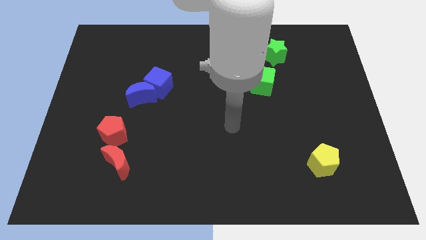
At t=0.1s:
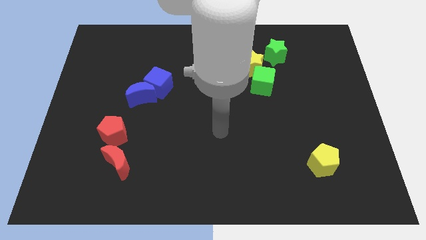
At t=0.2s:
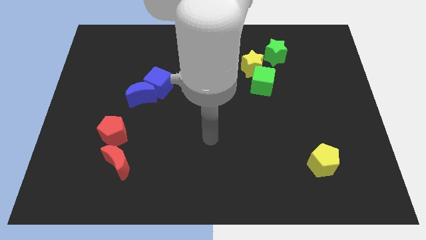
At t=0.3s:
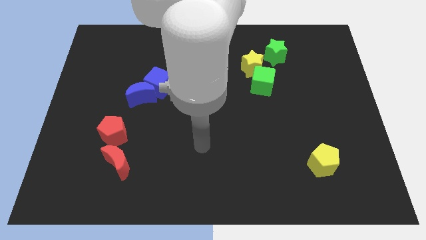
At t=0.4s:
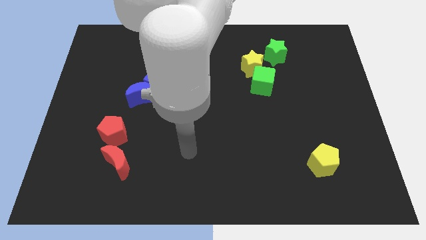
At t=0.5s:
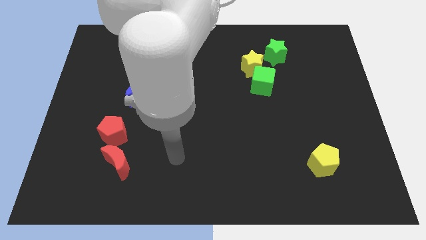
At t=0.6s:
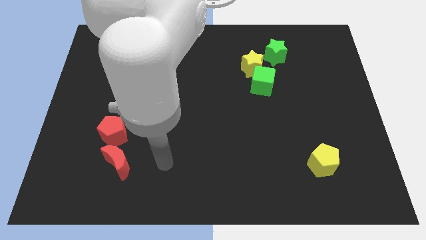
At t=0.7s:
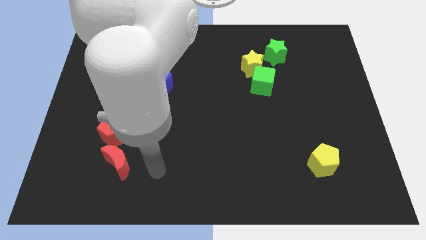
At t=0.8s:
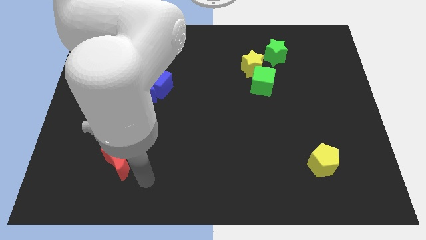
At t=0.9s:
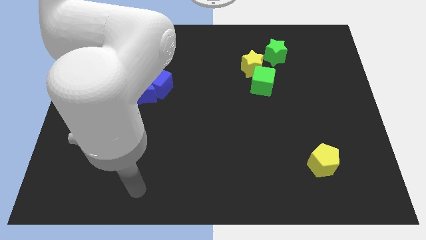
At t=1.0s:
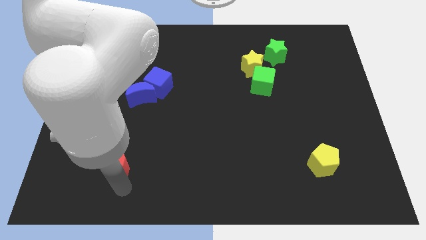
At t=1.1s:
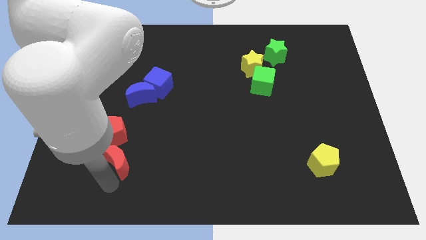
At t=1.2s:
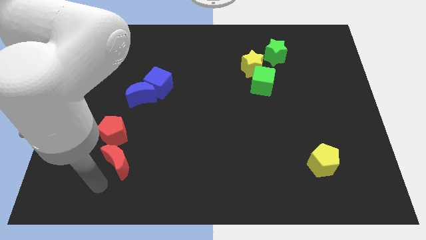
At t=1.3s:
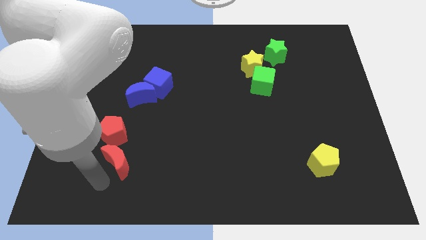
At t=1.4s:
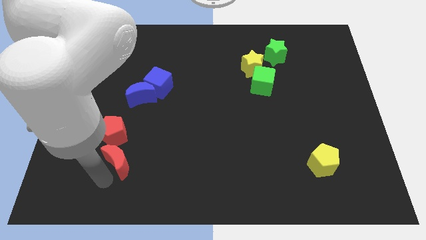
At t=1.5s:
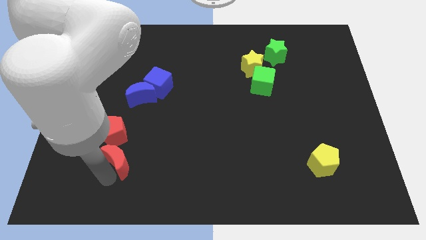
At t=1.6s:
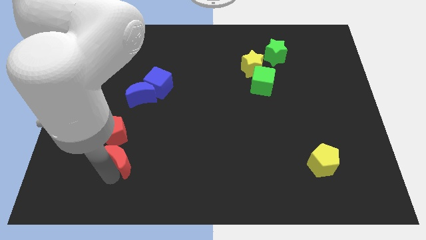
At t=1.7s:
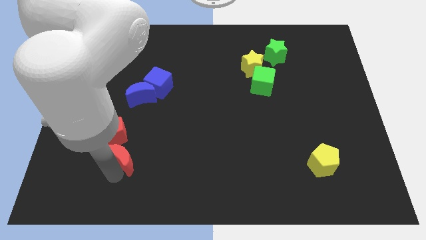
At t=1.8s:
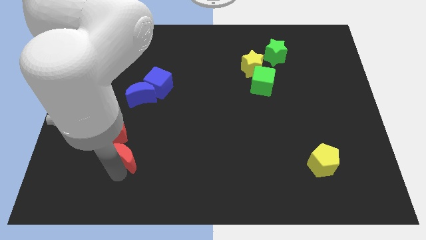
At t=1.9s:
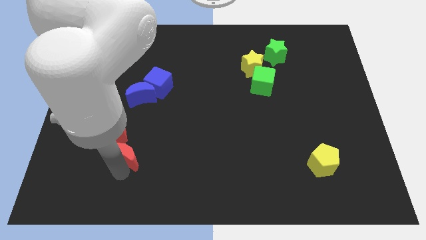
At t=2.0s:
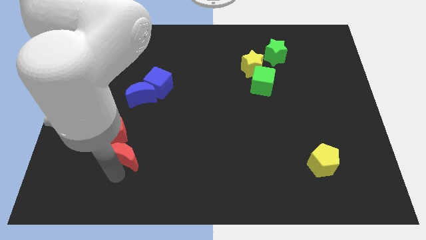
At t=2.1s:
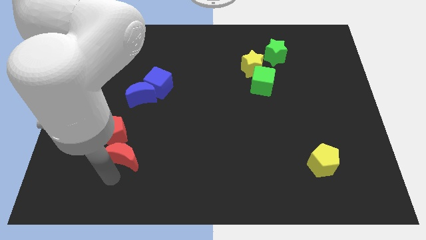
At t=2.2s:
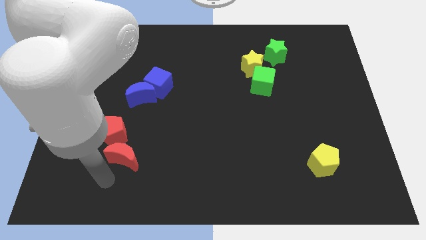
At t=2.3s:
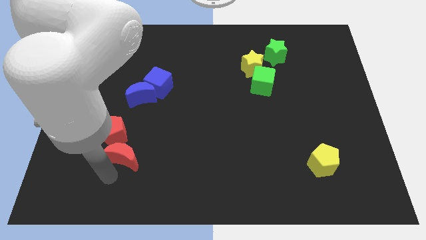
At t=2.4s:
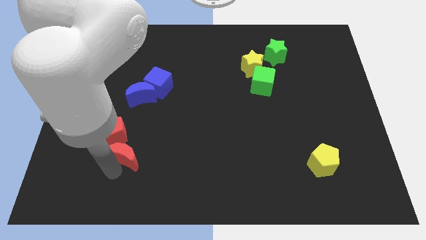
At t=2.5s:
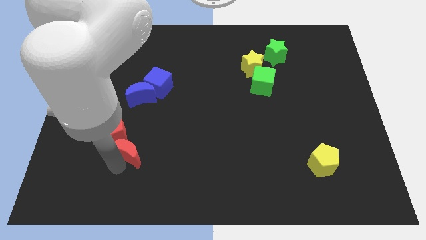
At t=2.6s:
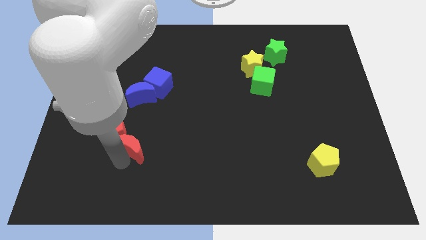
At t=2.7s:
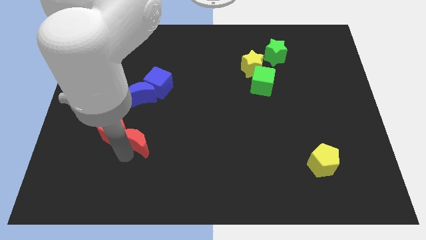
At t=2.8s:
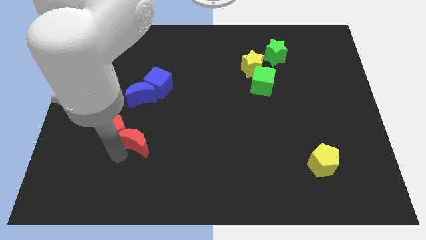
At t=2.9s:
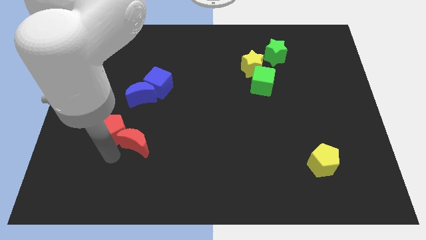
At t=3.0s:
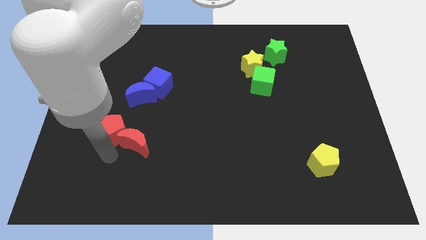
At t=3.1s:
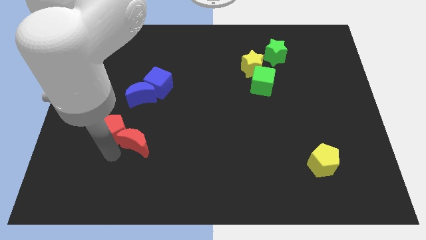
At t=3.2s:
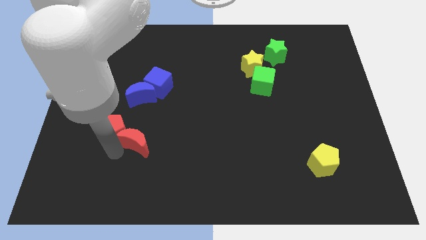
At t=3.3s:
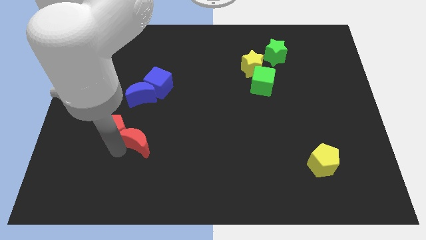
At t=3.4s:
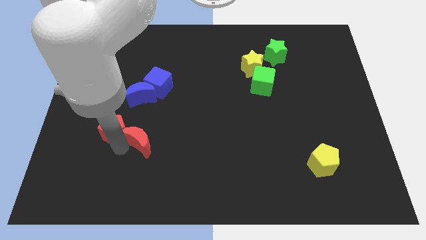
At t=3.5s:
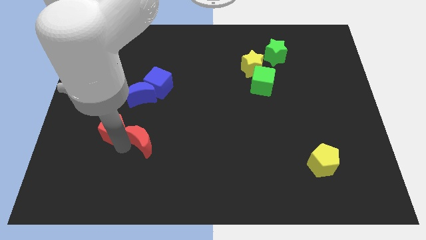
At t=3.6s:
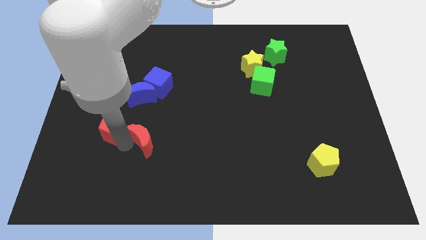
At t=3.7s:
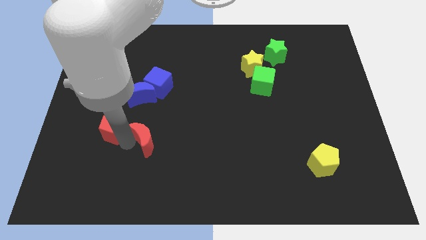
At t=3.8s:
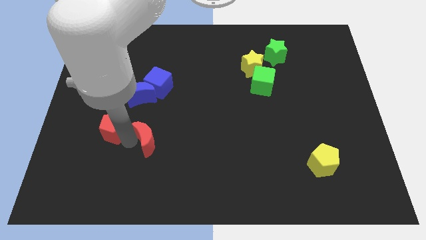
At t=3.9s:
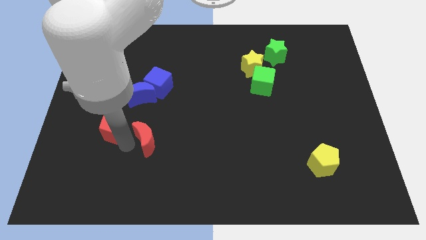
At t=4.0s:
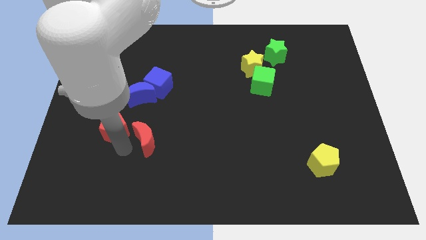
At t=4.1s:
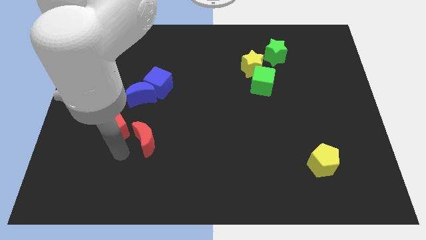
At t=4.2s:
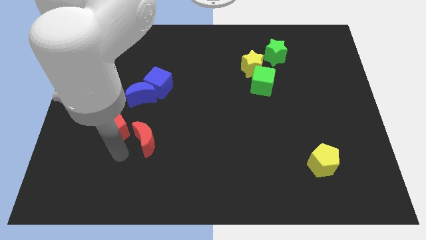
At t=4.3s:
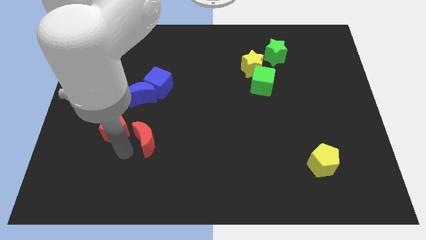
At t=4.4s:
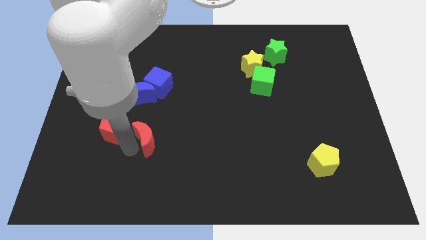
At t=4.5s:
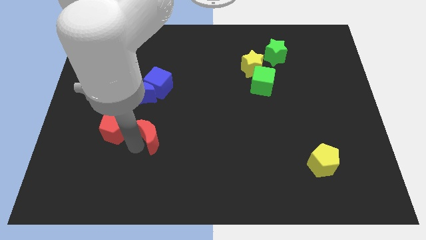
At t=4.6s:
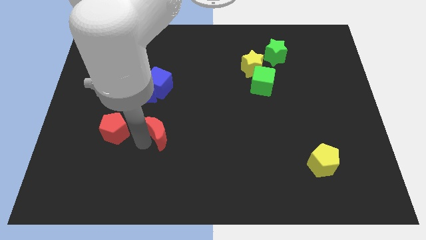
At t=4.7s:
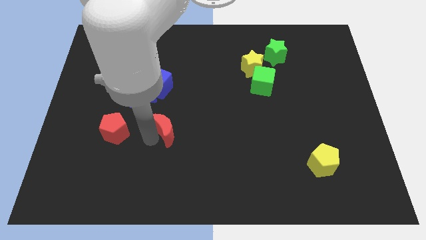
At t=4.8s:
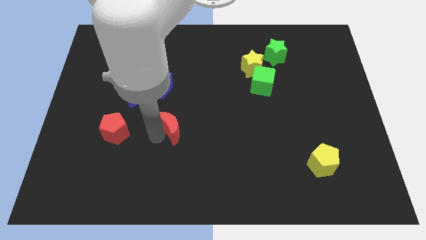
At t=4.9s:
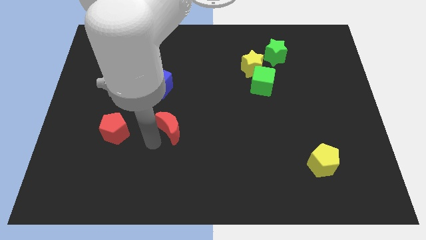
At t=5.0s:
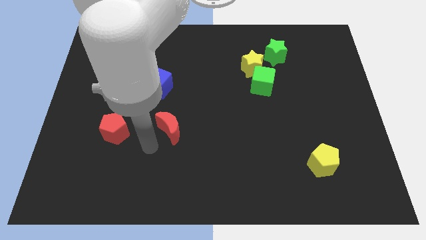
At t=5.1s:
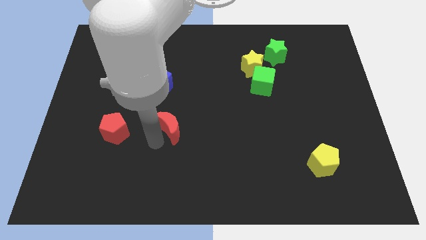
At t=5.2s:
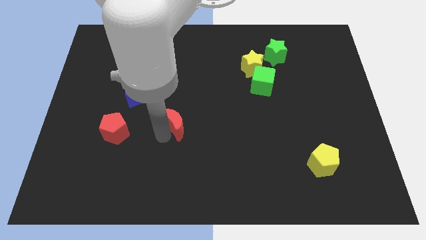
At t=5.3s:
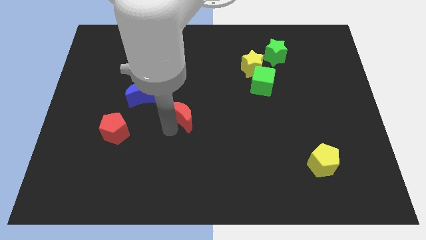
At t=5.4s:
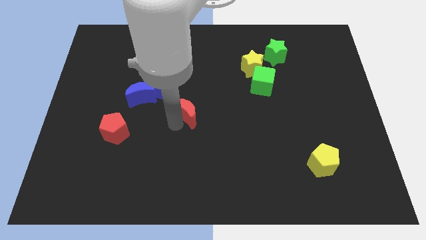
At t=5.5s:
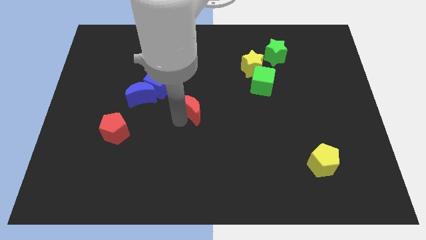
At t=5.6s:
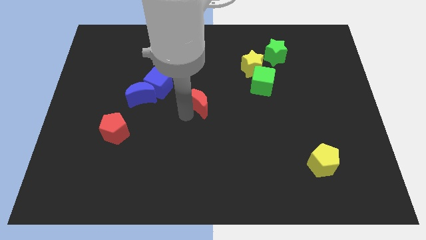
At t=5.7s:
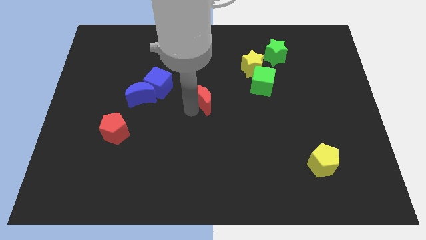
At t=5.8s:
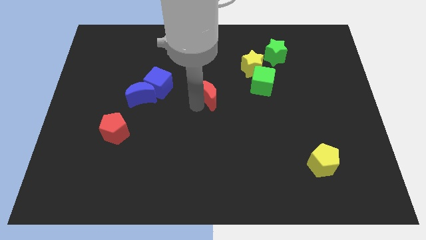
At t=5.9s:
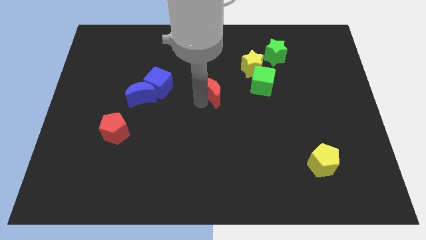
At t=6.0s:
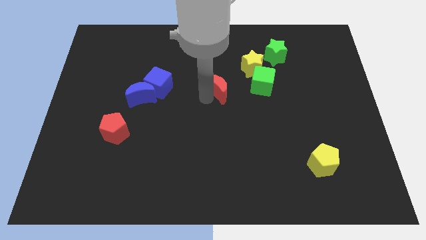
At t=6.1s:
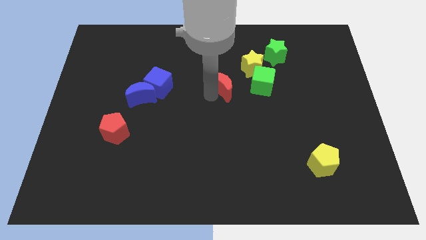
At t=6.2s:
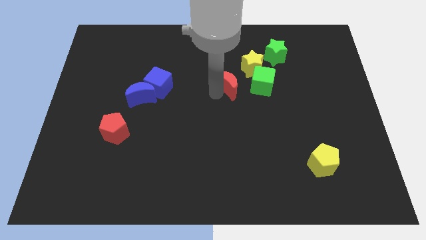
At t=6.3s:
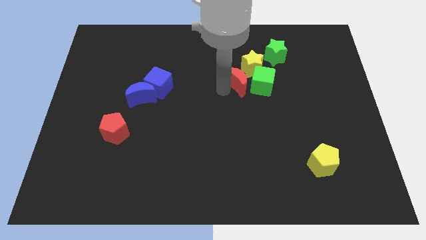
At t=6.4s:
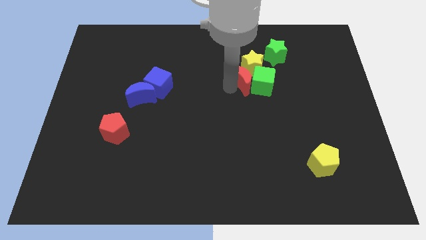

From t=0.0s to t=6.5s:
put the red moon towards the yellow star

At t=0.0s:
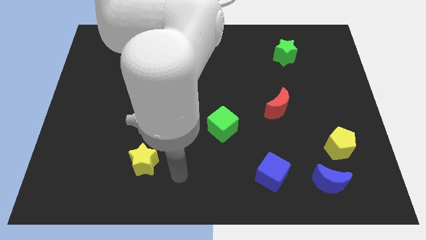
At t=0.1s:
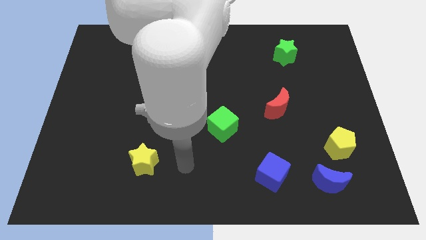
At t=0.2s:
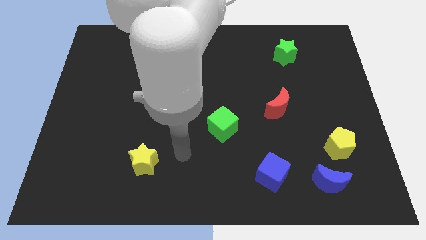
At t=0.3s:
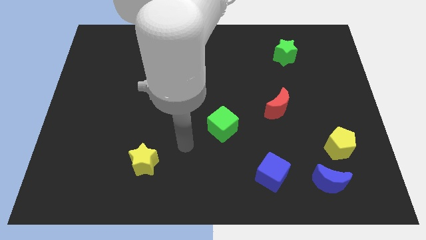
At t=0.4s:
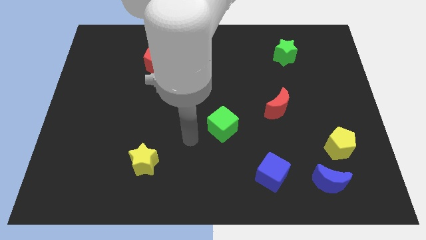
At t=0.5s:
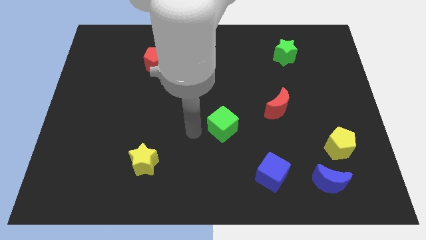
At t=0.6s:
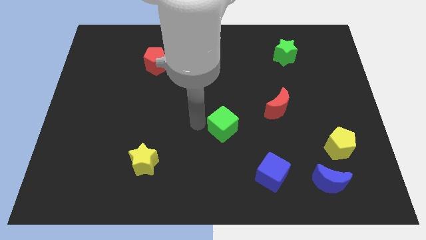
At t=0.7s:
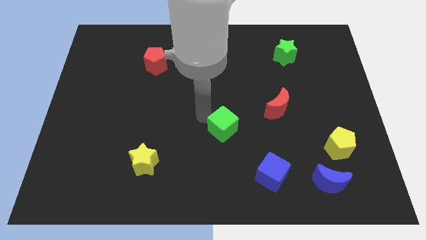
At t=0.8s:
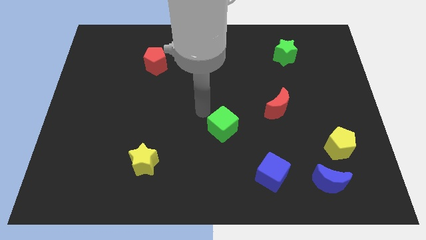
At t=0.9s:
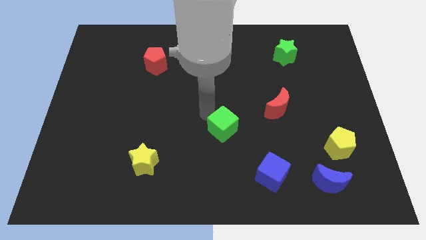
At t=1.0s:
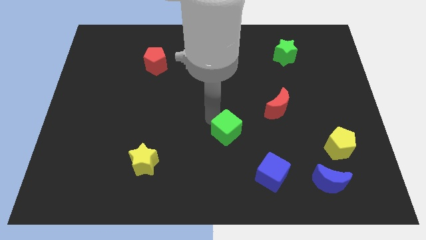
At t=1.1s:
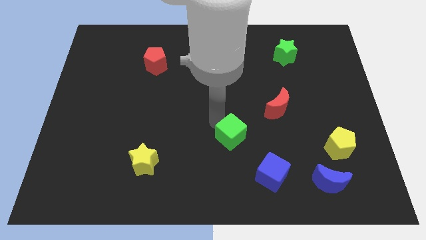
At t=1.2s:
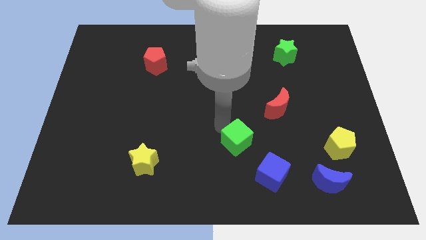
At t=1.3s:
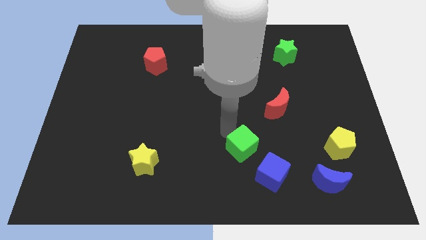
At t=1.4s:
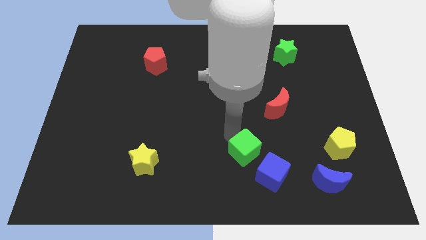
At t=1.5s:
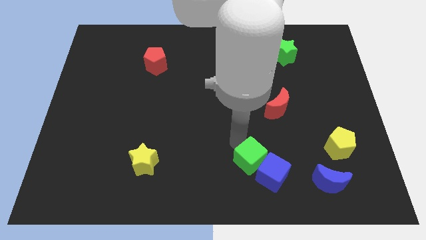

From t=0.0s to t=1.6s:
push the green cube next to the blue cube
